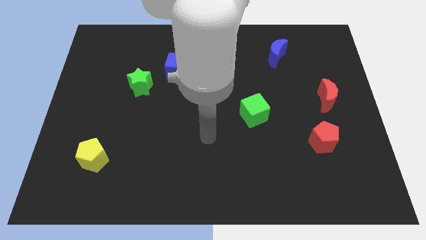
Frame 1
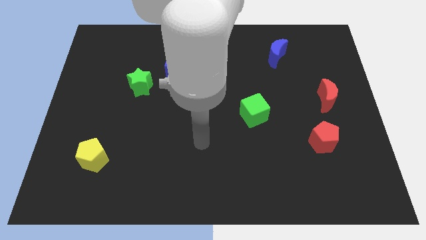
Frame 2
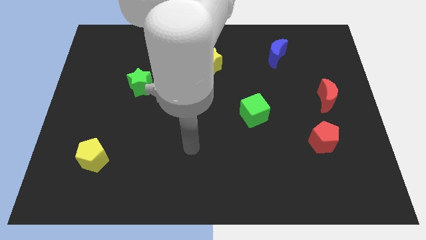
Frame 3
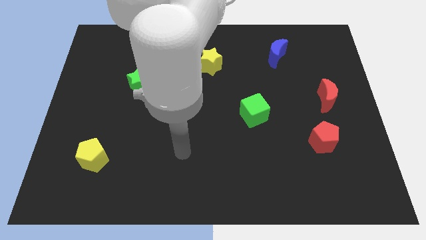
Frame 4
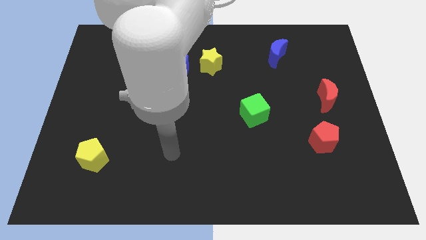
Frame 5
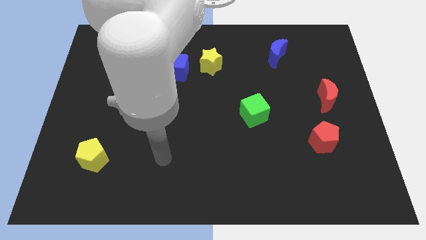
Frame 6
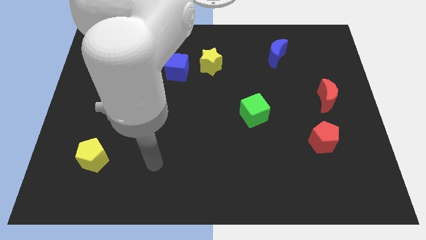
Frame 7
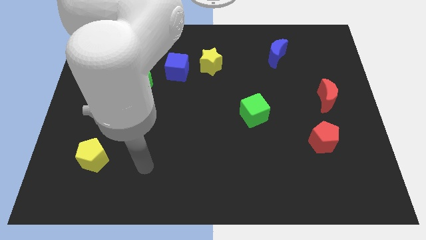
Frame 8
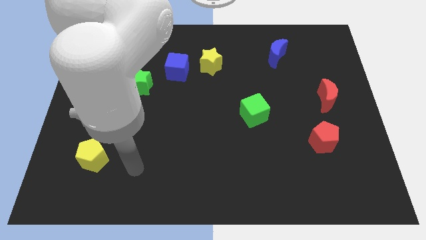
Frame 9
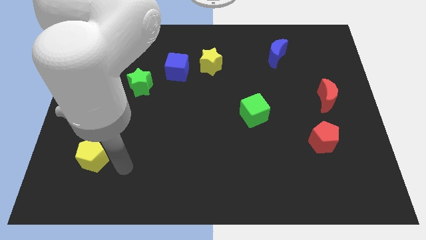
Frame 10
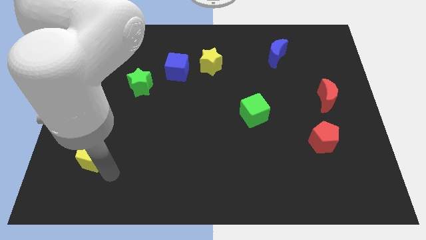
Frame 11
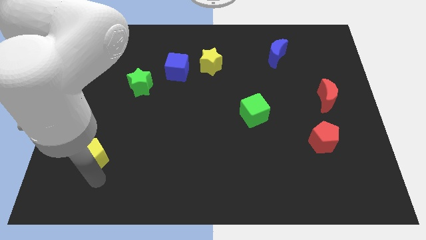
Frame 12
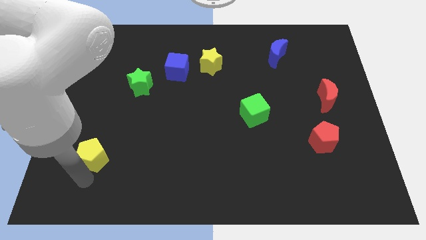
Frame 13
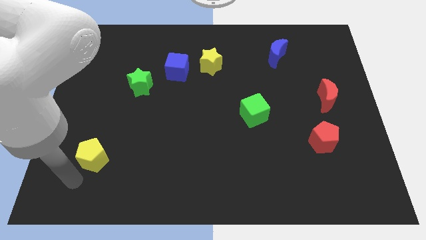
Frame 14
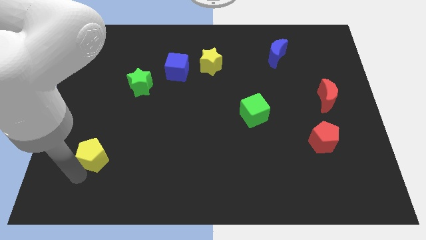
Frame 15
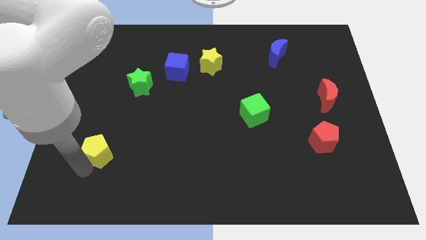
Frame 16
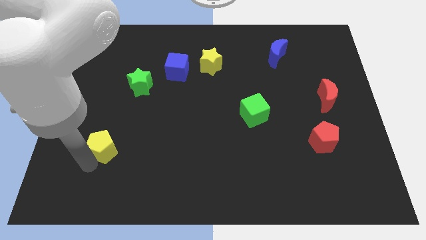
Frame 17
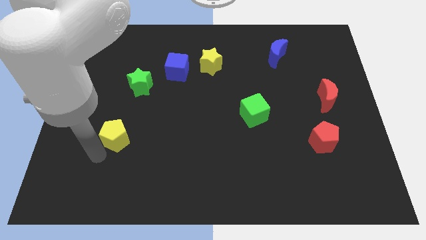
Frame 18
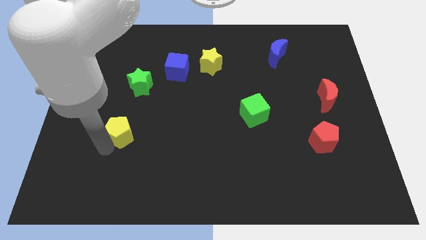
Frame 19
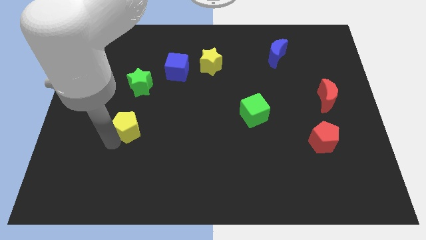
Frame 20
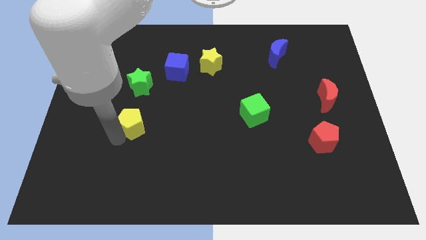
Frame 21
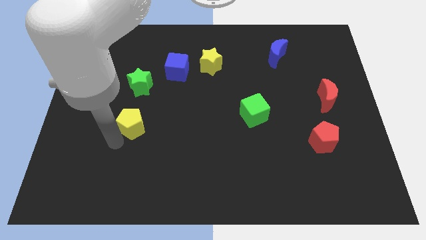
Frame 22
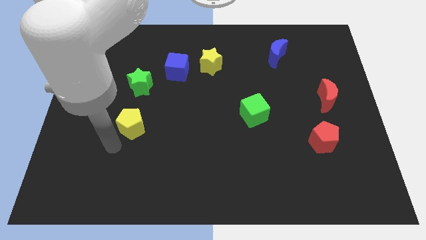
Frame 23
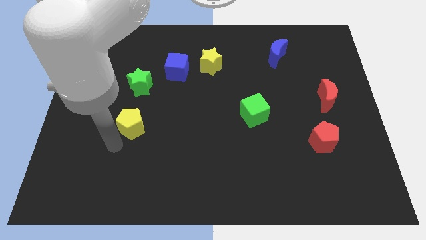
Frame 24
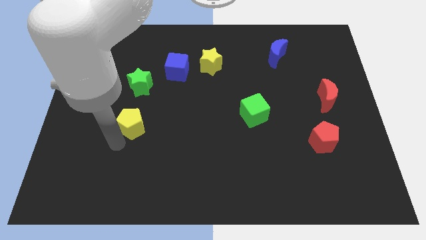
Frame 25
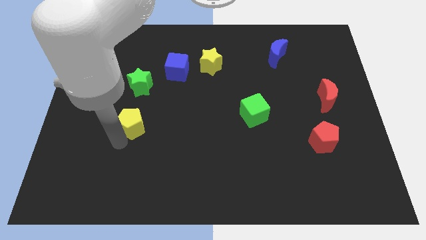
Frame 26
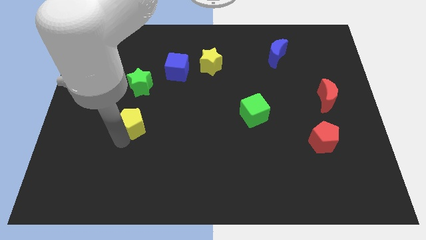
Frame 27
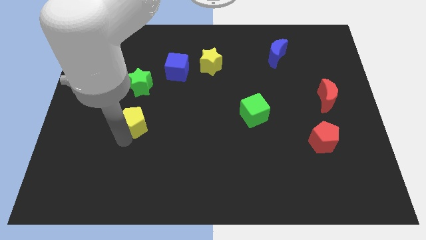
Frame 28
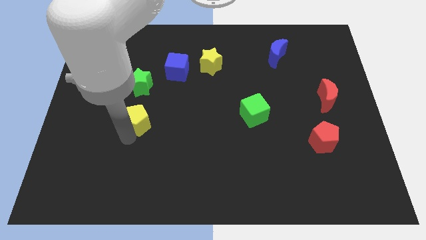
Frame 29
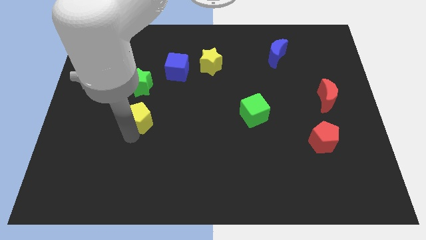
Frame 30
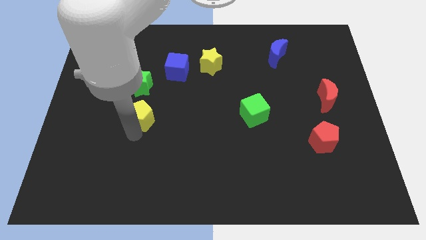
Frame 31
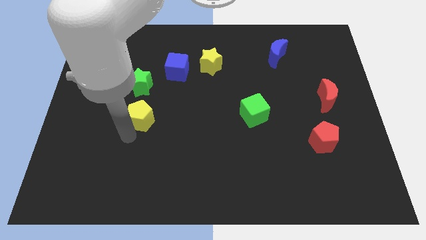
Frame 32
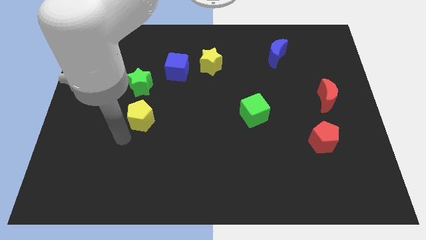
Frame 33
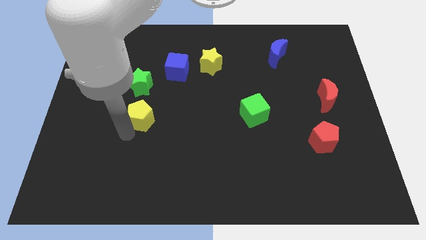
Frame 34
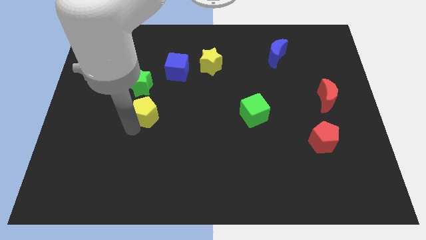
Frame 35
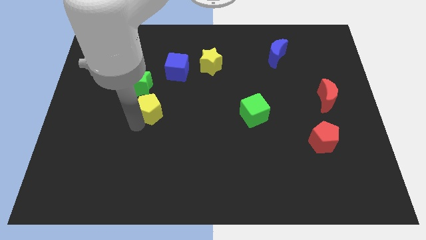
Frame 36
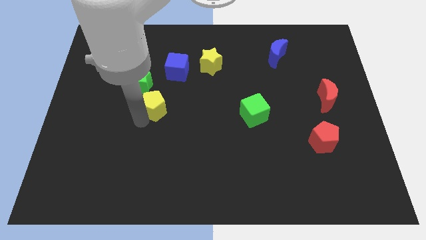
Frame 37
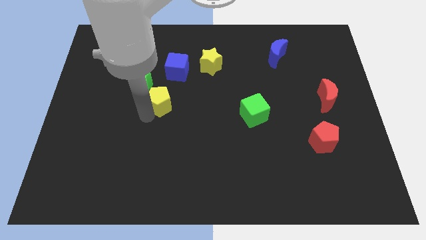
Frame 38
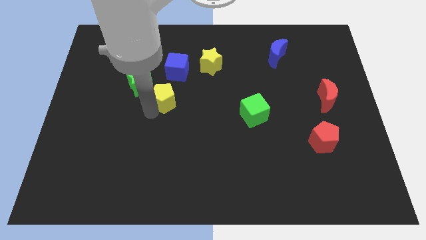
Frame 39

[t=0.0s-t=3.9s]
push the yellow pentagon upwards and then right

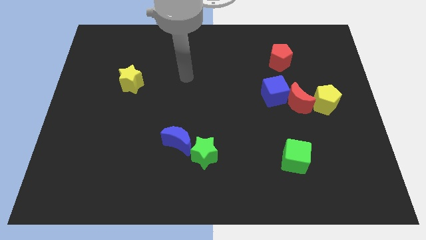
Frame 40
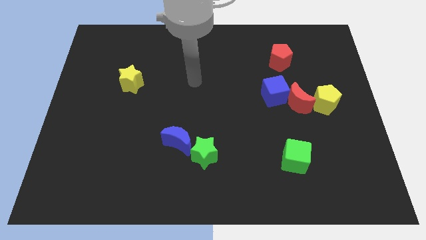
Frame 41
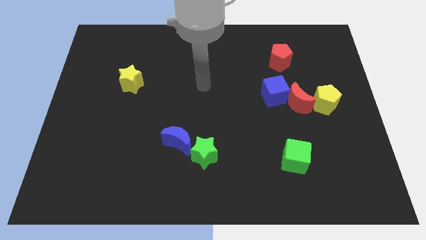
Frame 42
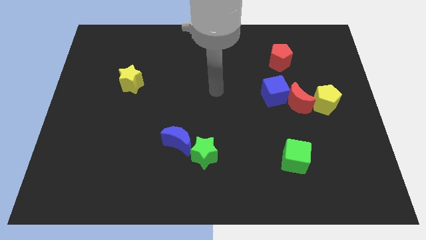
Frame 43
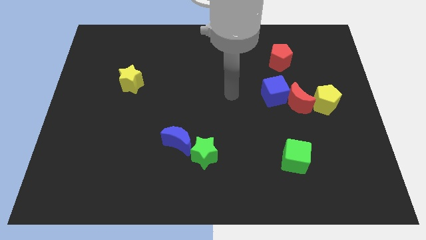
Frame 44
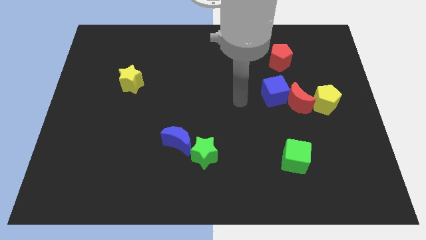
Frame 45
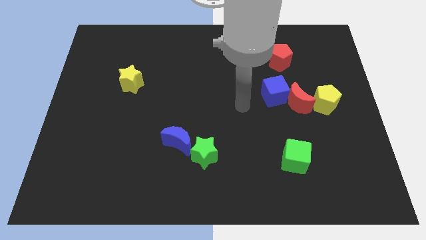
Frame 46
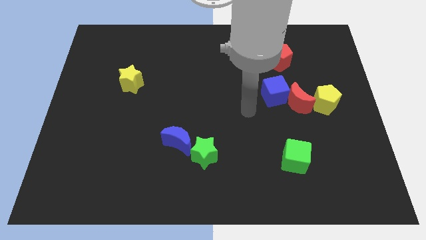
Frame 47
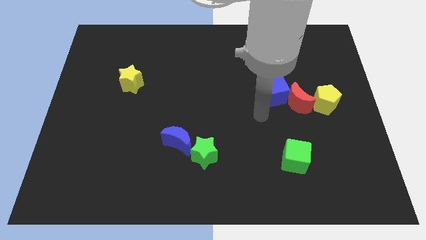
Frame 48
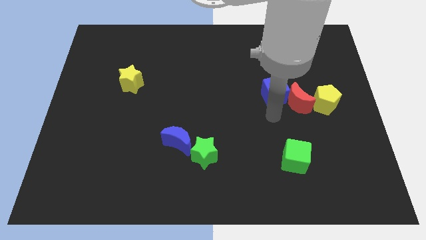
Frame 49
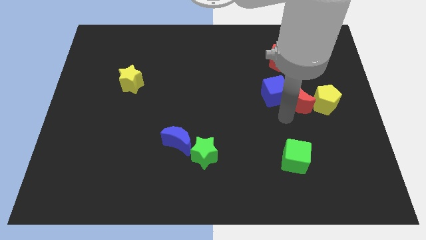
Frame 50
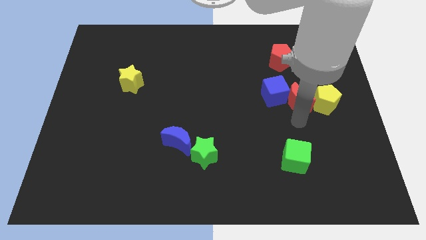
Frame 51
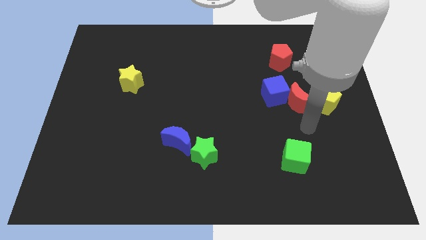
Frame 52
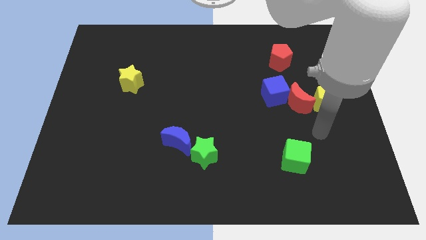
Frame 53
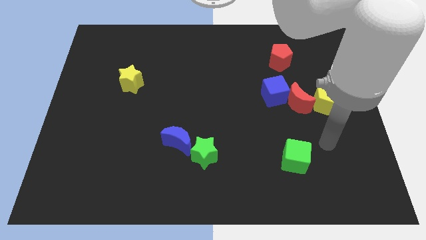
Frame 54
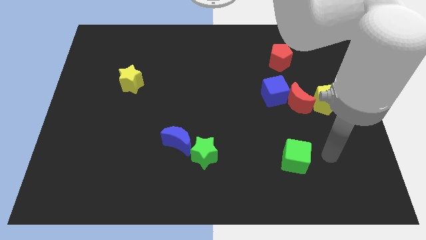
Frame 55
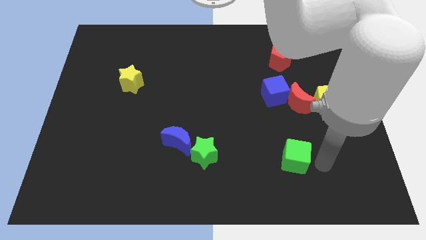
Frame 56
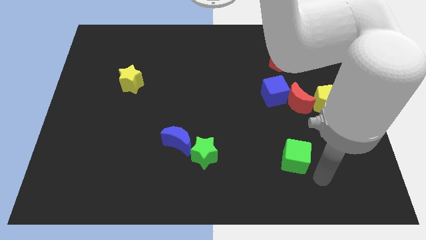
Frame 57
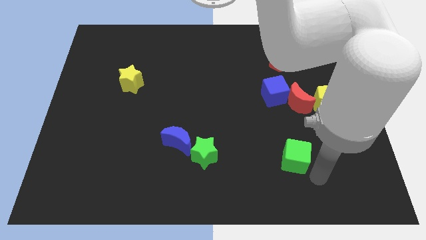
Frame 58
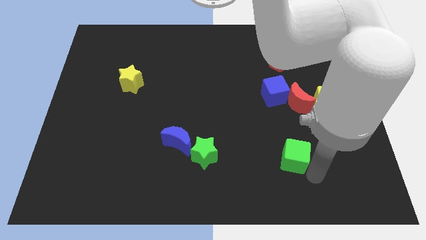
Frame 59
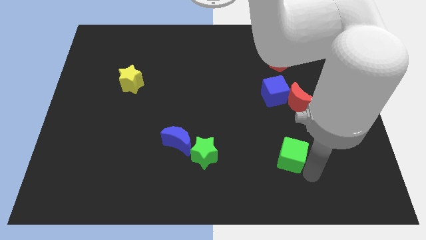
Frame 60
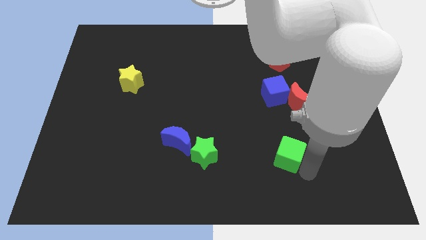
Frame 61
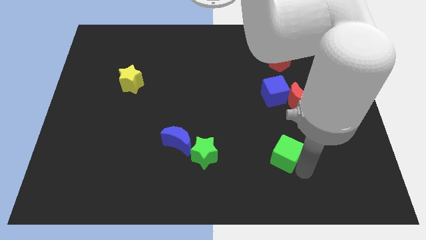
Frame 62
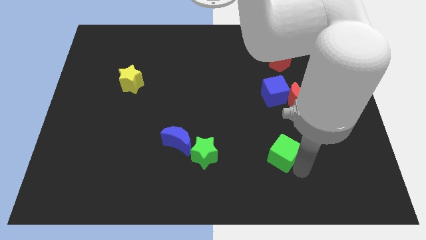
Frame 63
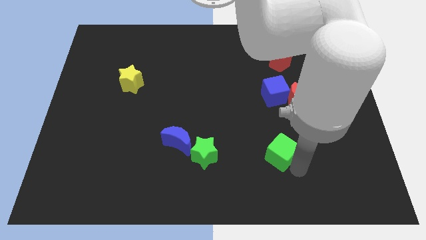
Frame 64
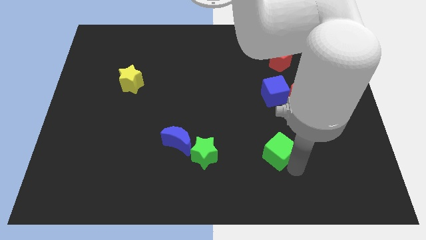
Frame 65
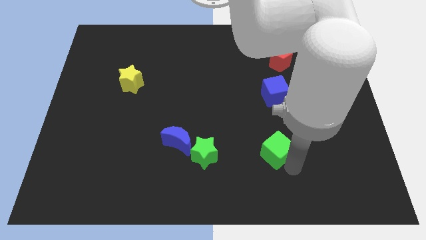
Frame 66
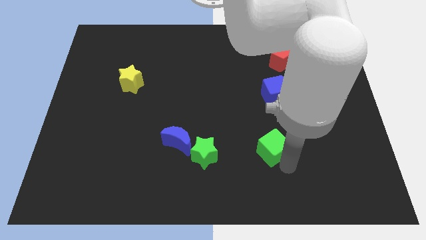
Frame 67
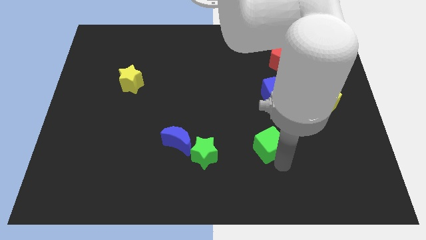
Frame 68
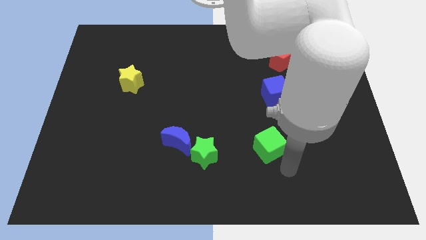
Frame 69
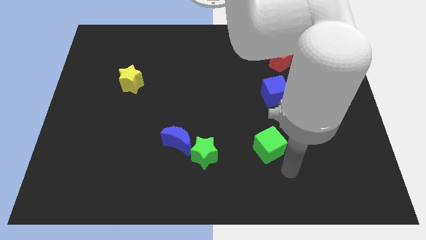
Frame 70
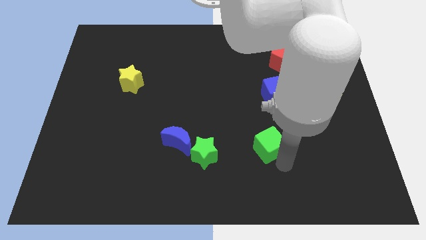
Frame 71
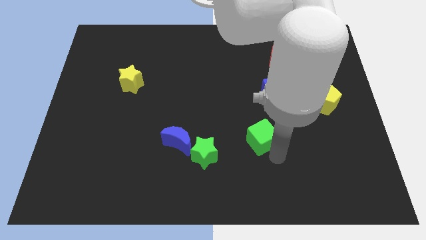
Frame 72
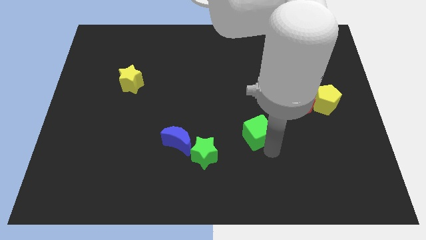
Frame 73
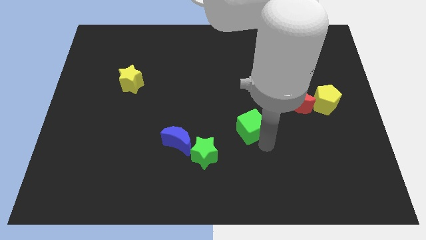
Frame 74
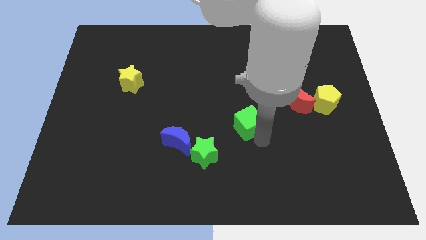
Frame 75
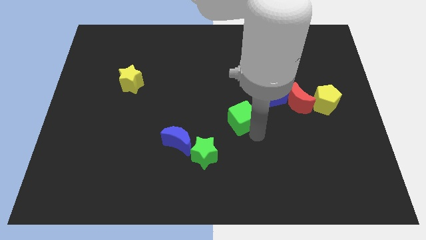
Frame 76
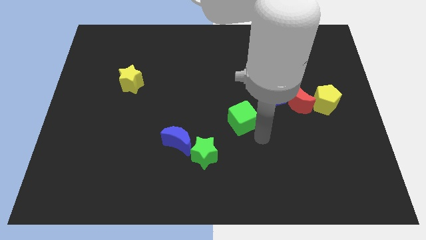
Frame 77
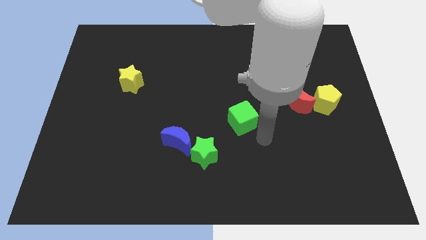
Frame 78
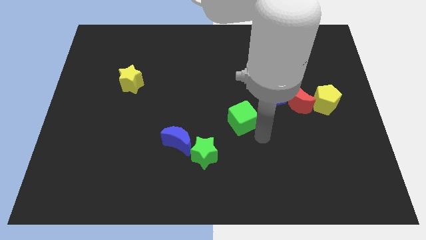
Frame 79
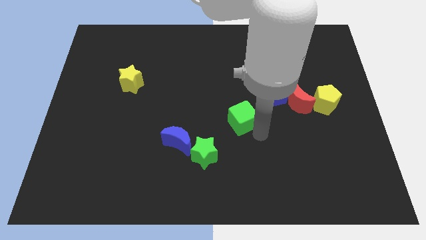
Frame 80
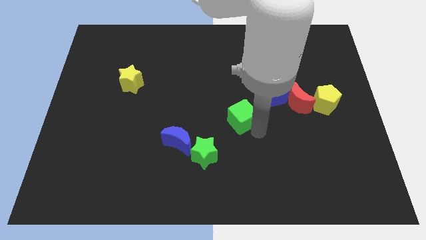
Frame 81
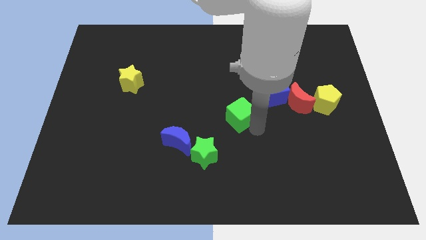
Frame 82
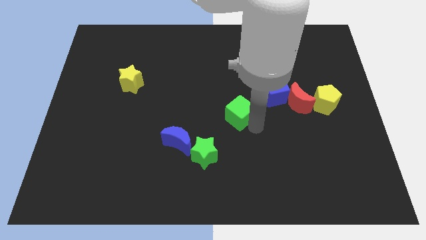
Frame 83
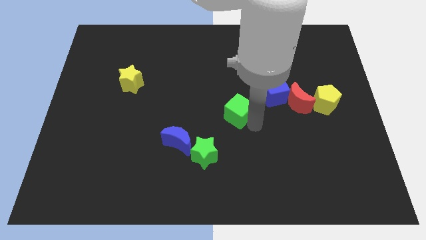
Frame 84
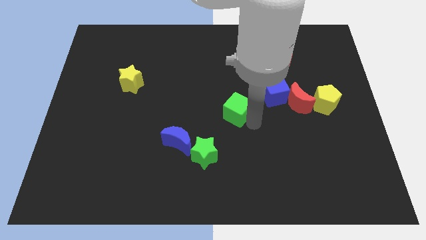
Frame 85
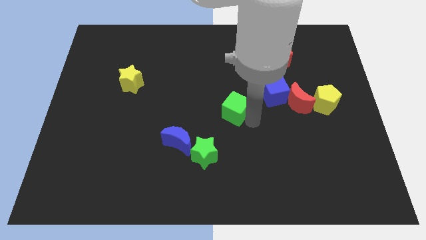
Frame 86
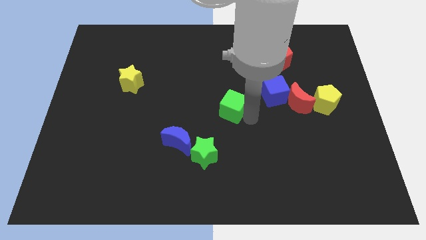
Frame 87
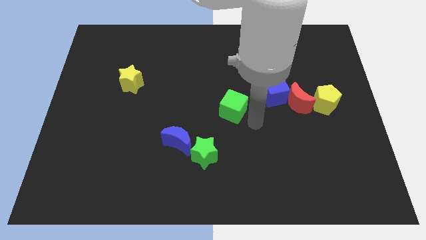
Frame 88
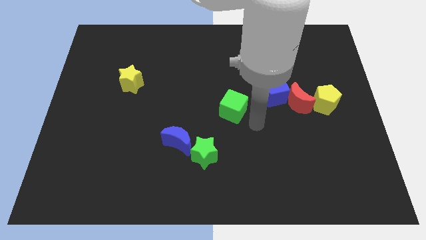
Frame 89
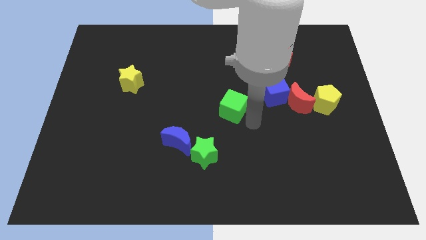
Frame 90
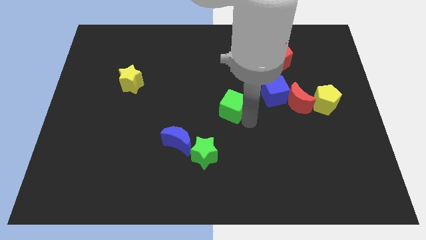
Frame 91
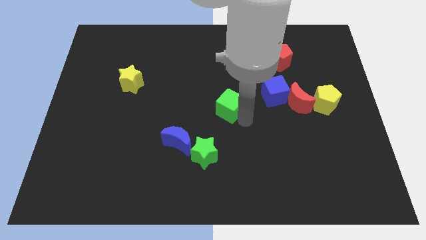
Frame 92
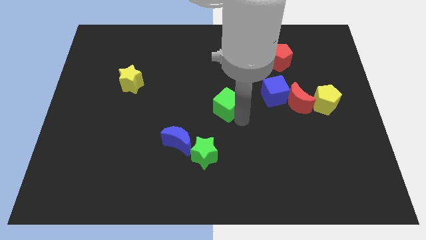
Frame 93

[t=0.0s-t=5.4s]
push the green cube diagonally upwards and left
